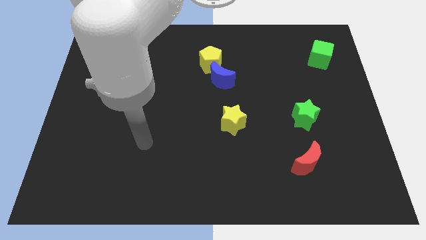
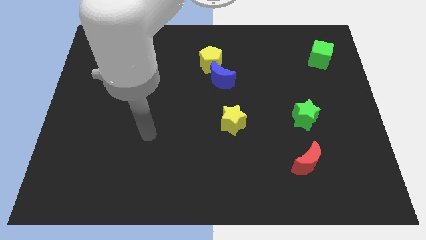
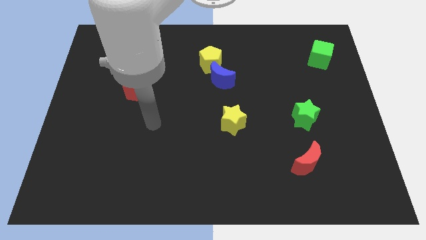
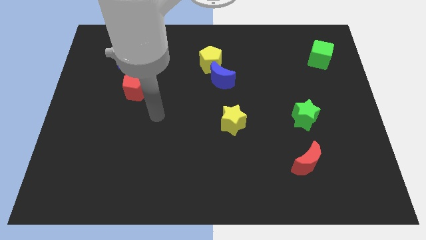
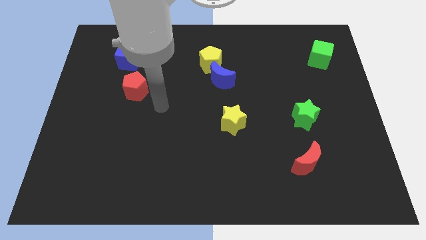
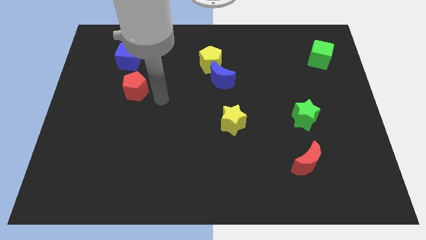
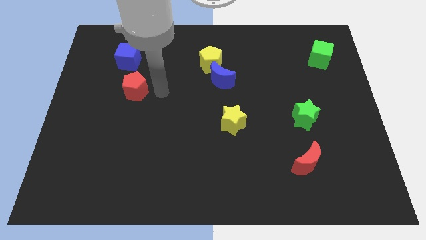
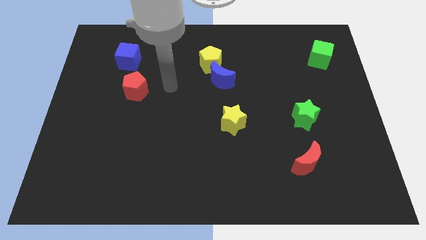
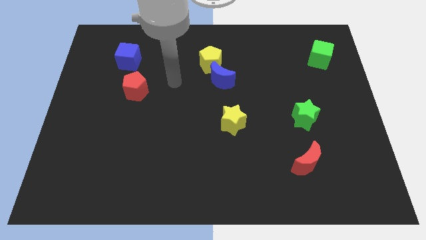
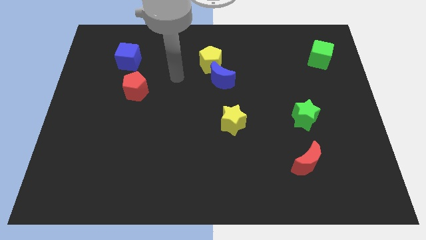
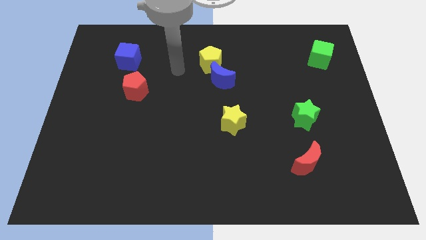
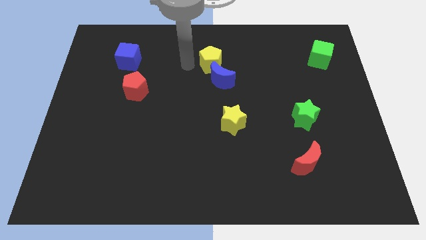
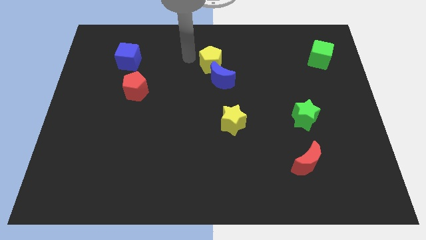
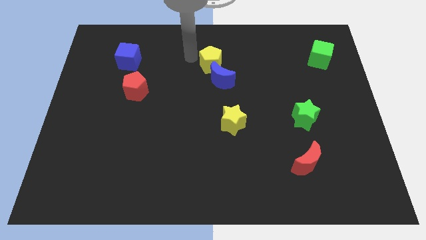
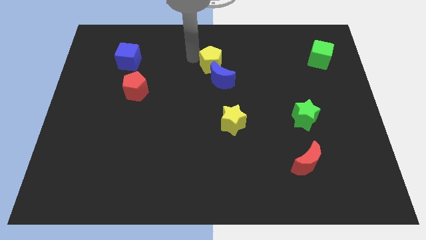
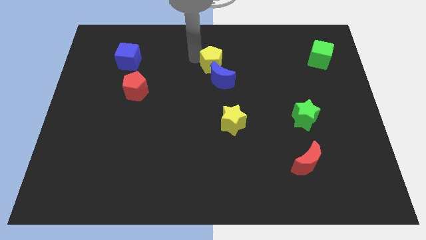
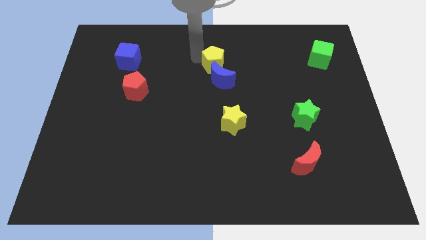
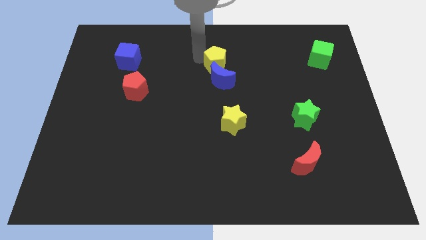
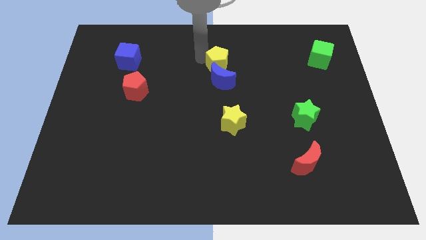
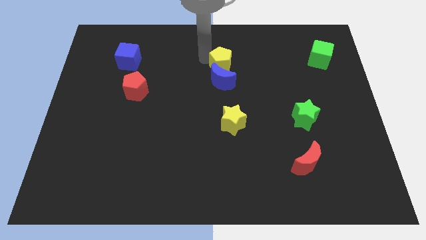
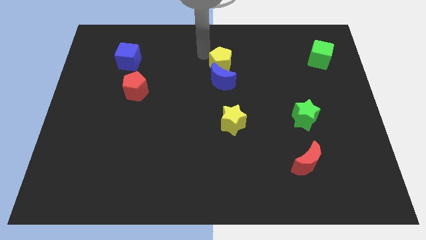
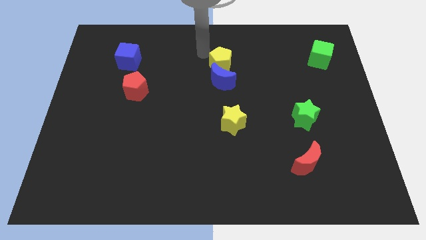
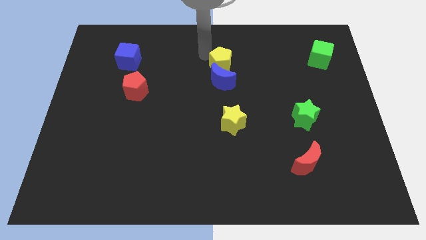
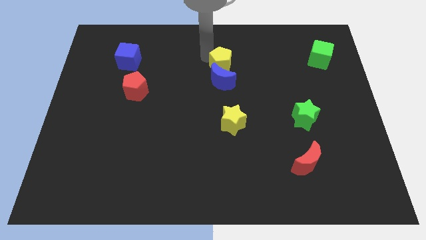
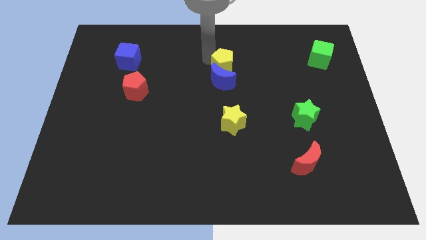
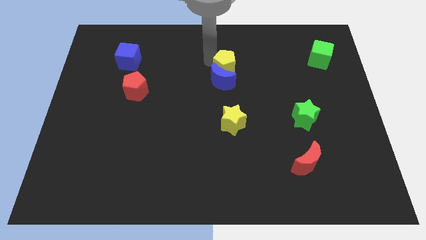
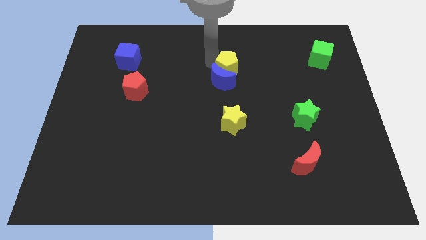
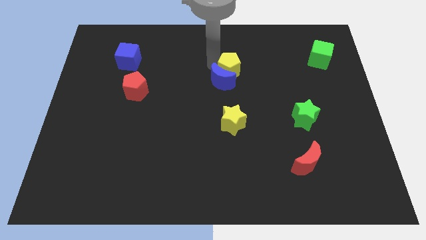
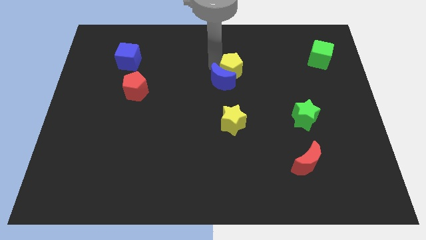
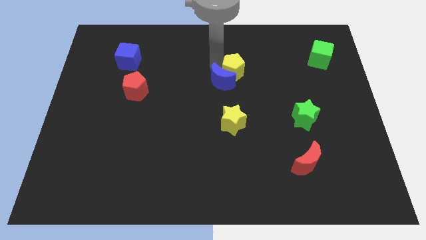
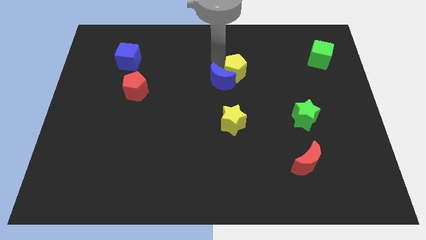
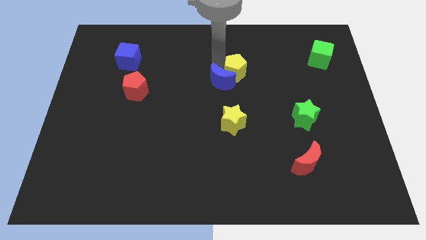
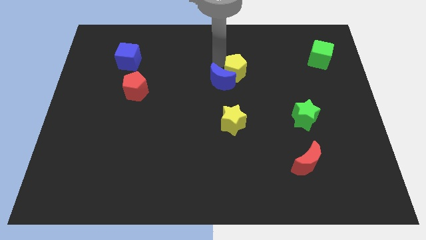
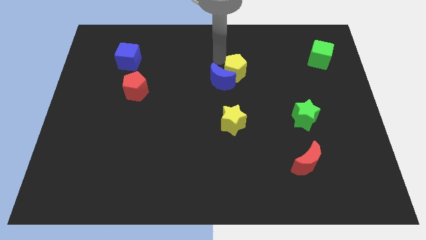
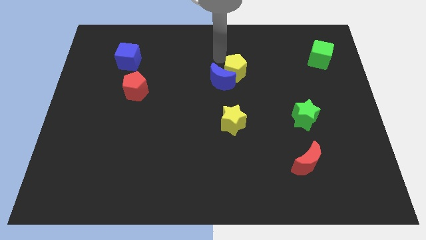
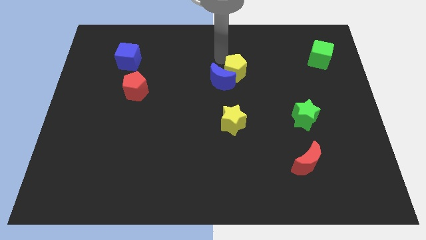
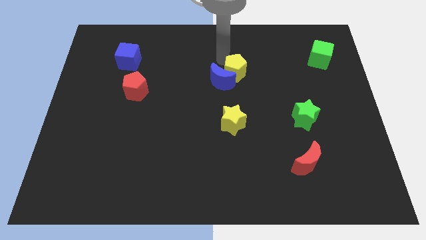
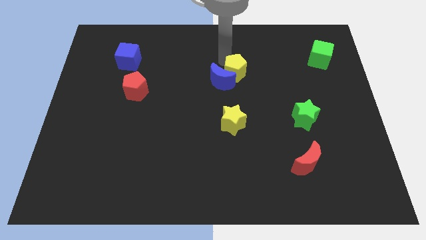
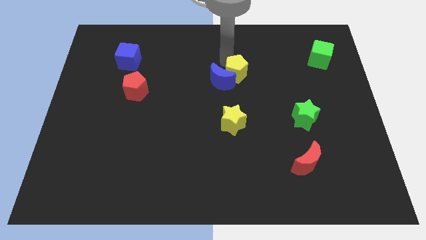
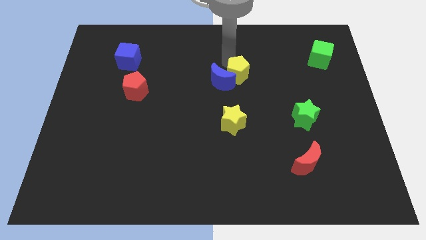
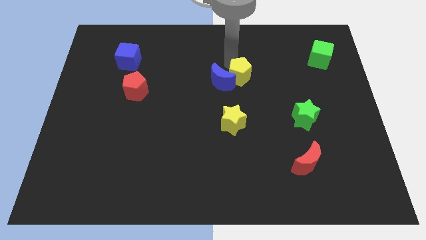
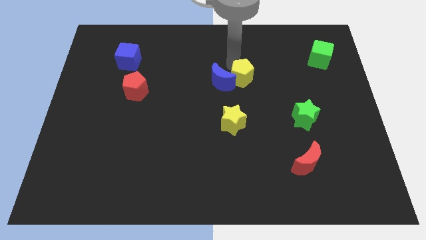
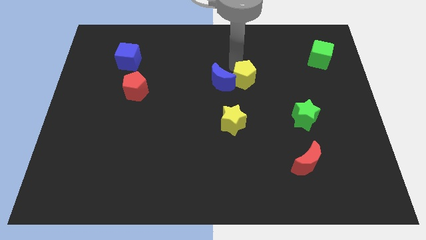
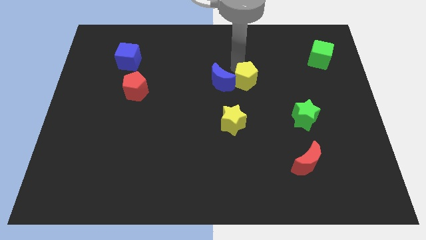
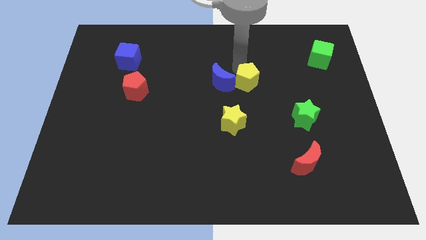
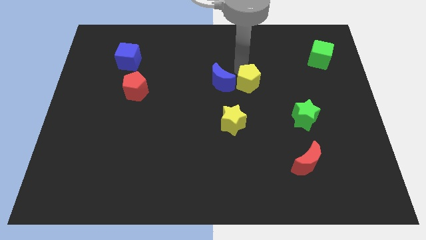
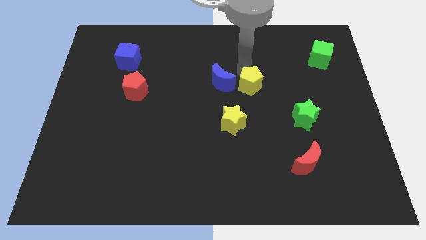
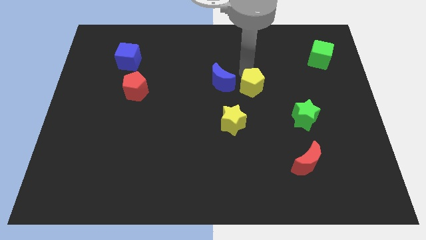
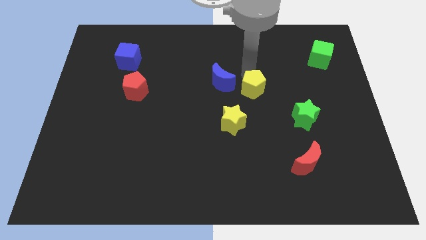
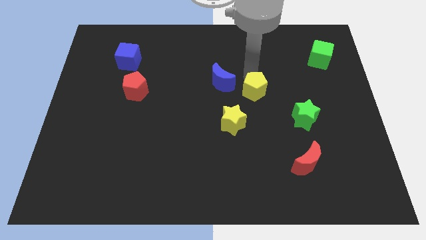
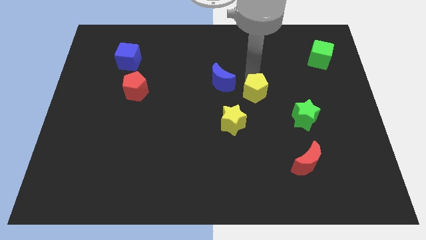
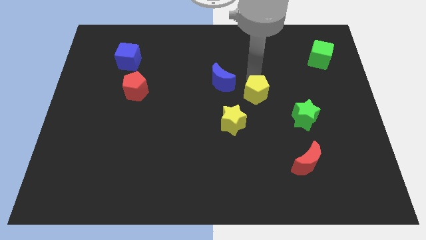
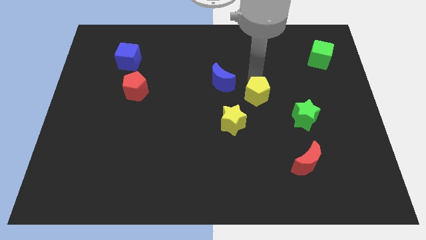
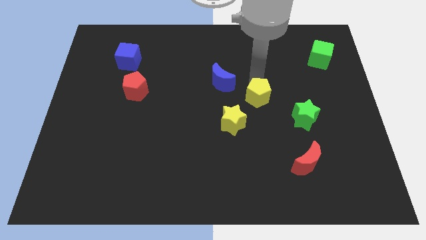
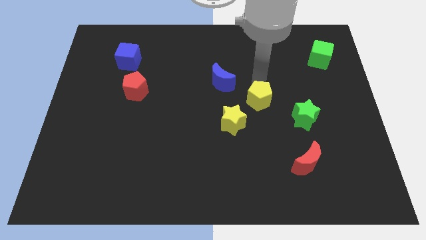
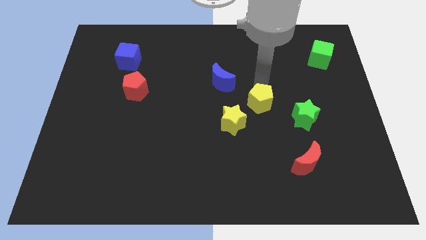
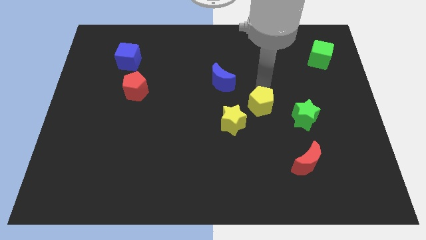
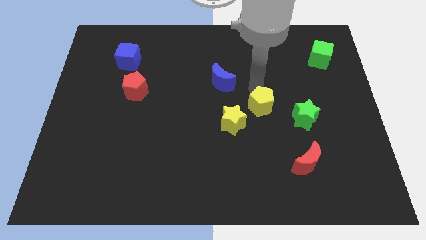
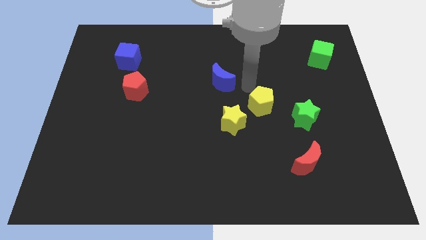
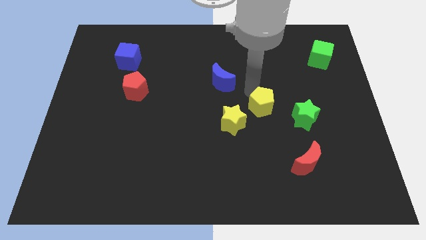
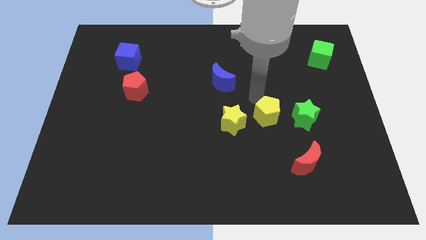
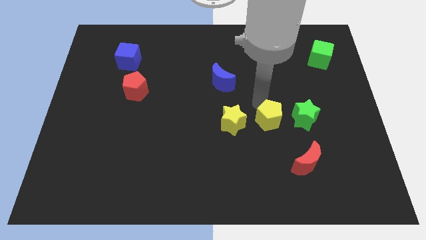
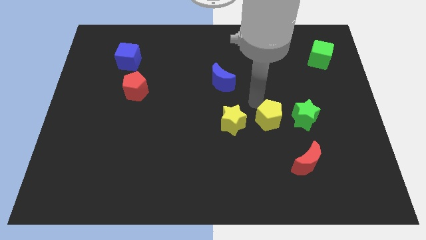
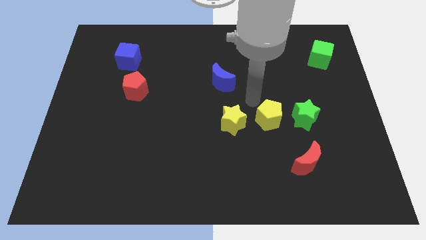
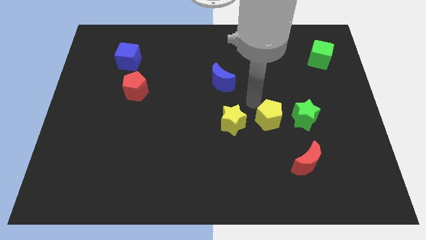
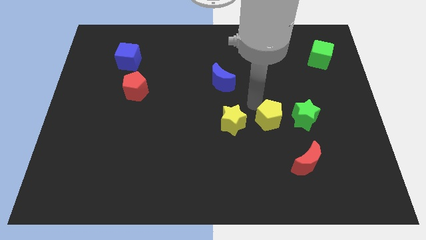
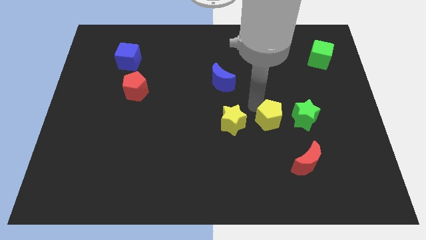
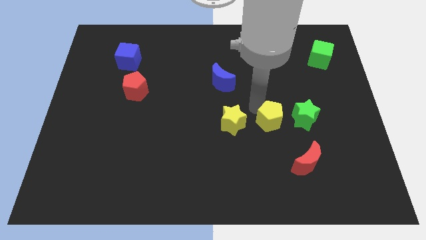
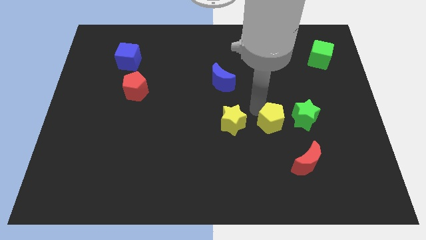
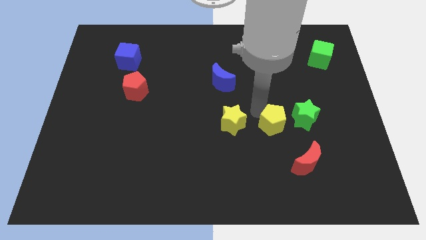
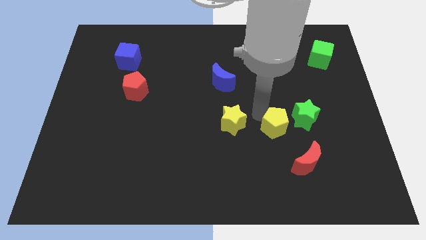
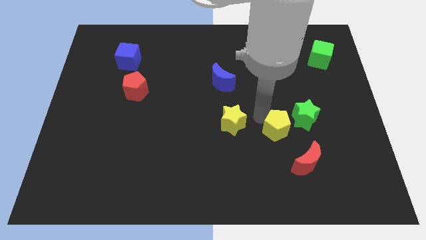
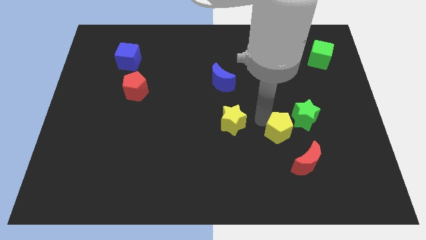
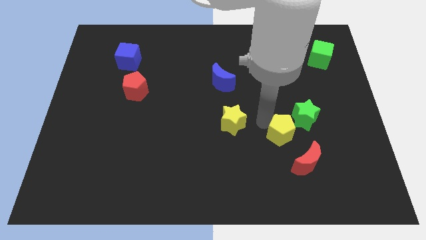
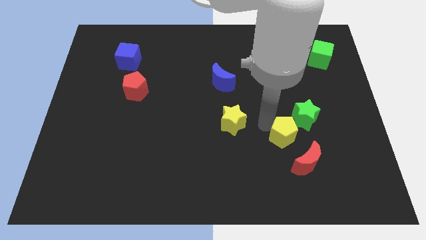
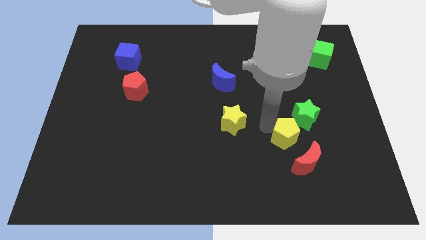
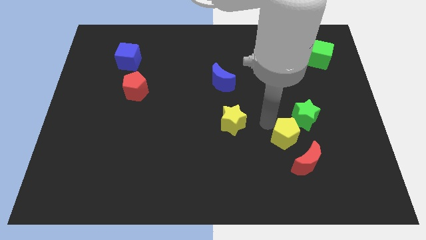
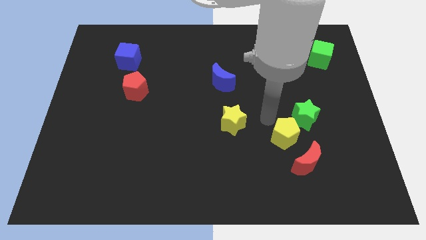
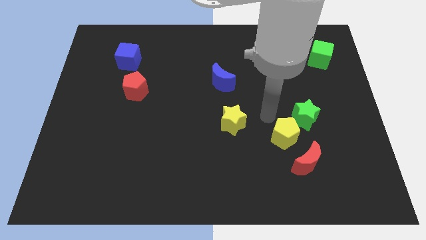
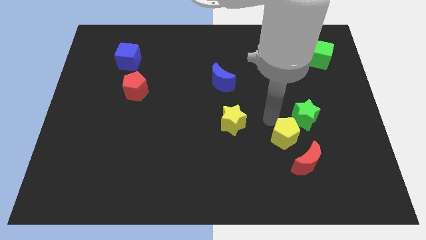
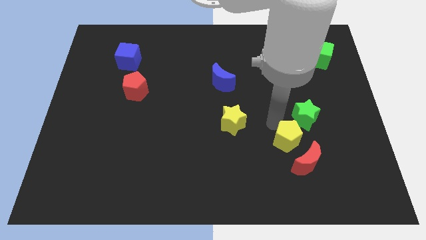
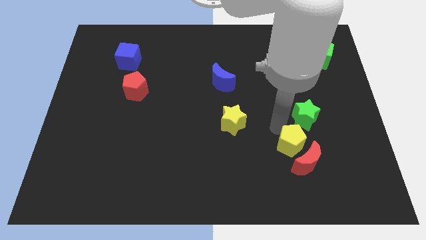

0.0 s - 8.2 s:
slide the yellow pentagon close to the red moon

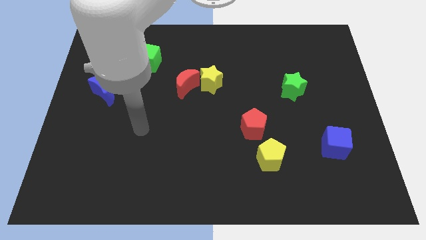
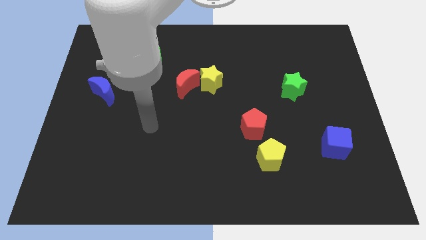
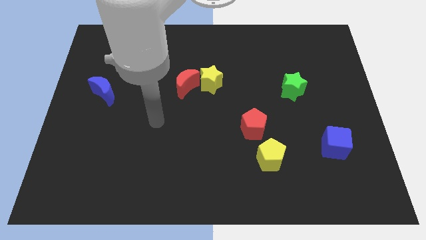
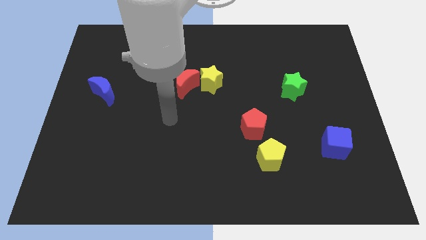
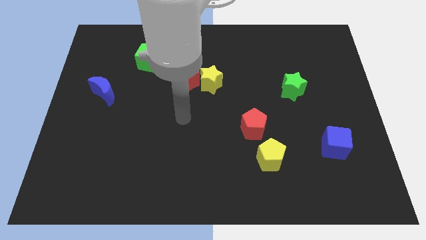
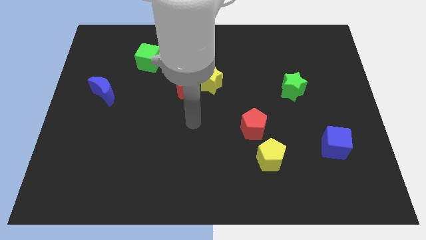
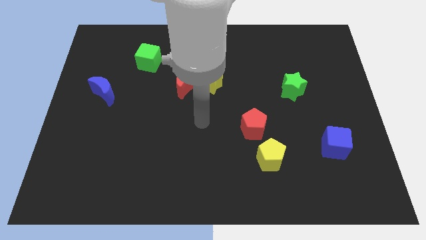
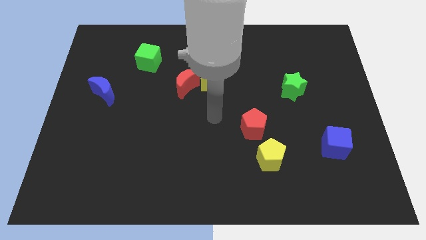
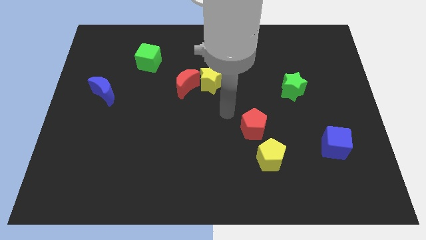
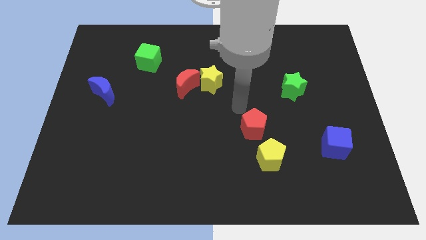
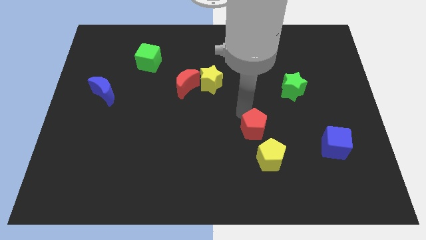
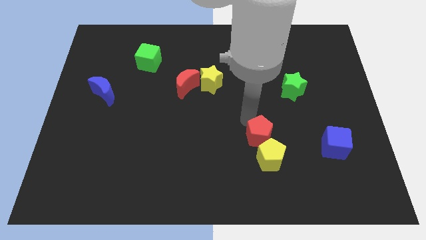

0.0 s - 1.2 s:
push the red pentagon next to the yellow pentagon
